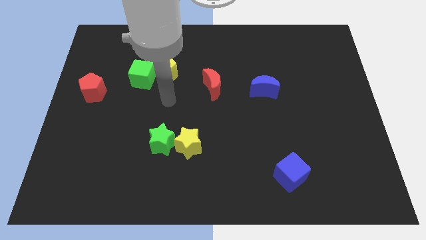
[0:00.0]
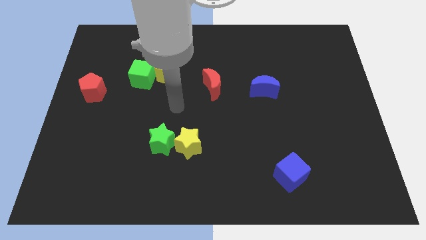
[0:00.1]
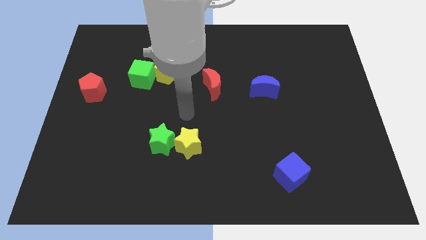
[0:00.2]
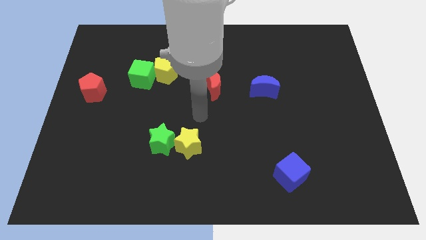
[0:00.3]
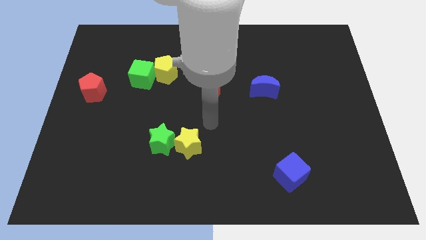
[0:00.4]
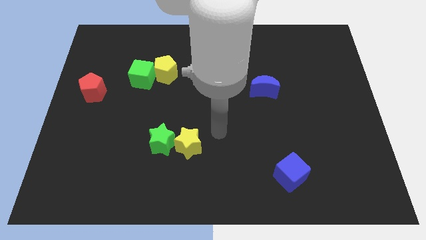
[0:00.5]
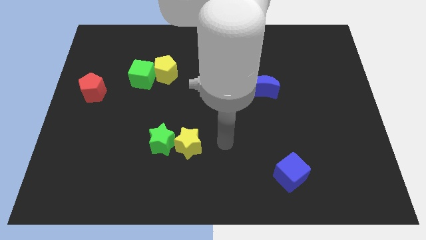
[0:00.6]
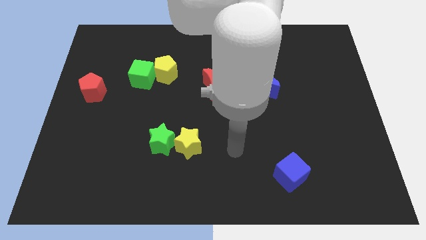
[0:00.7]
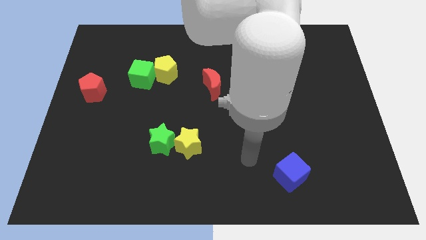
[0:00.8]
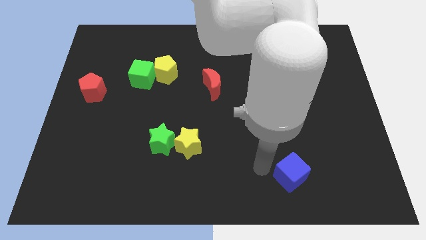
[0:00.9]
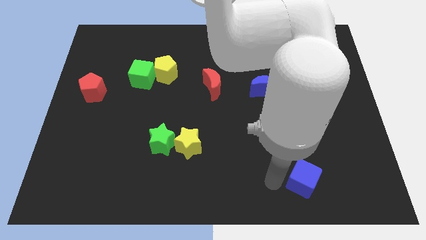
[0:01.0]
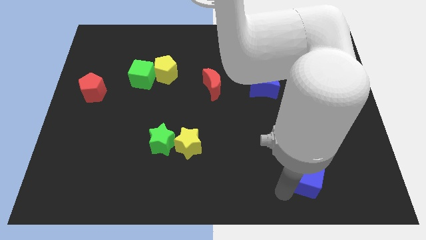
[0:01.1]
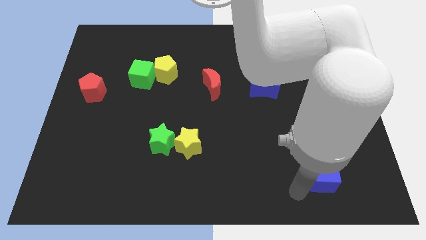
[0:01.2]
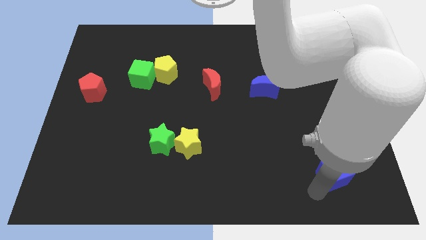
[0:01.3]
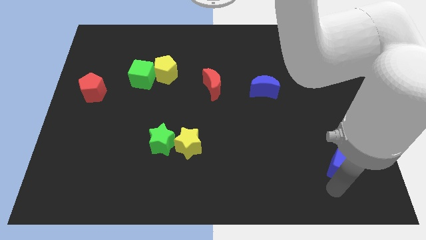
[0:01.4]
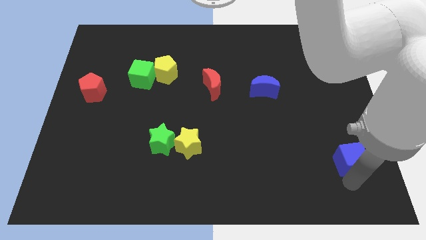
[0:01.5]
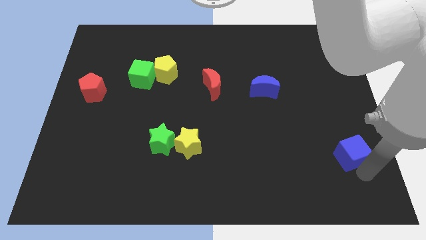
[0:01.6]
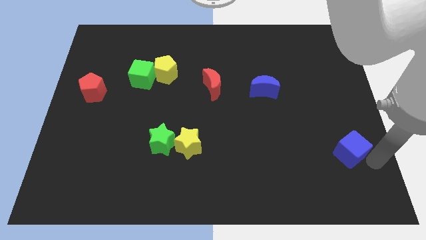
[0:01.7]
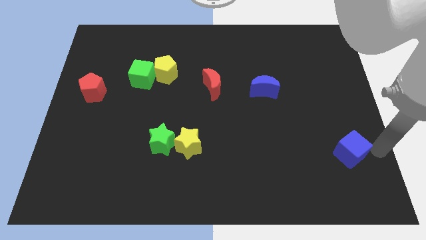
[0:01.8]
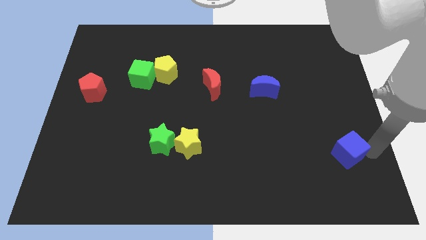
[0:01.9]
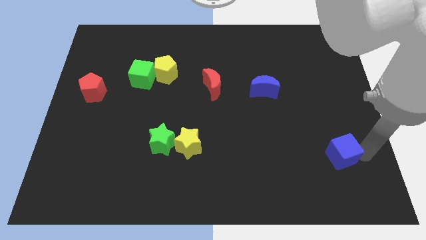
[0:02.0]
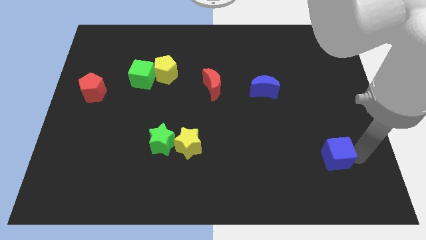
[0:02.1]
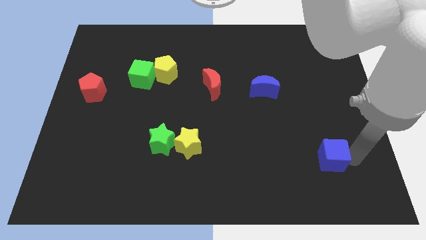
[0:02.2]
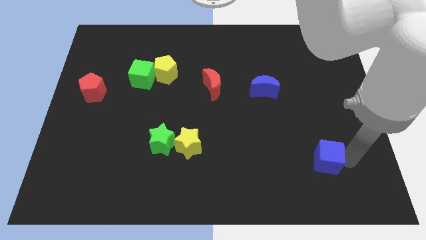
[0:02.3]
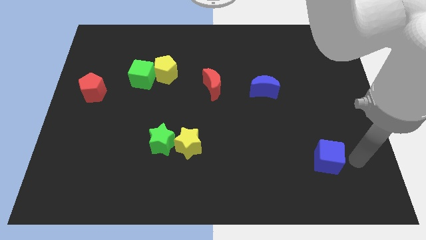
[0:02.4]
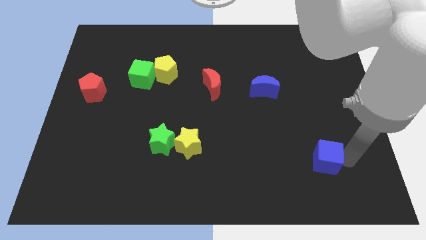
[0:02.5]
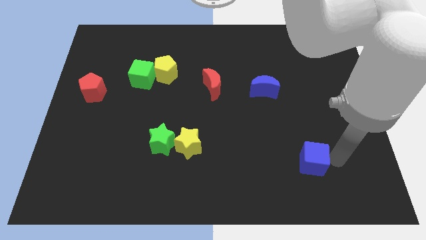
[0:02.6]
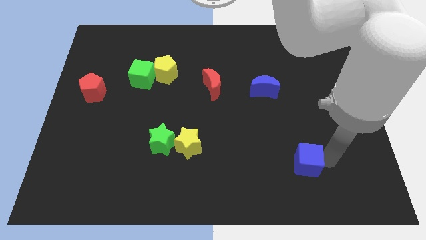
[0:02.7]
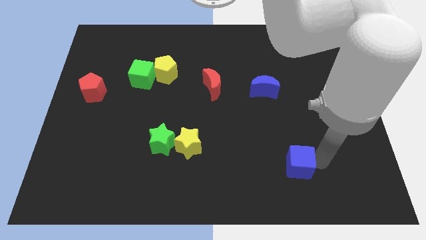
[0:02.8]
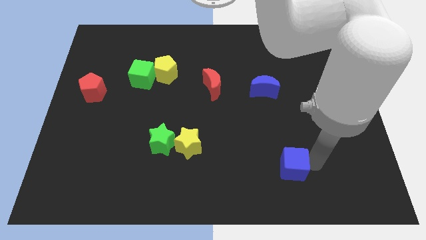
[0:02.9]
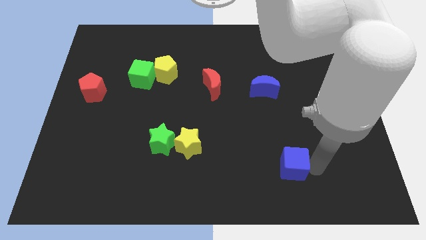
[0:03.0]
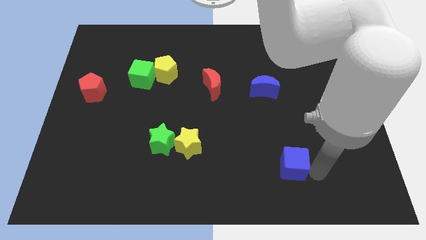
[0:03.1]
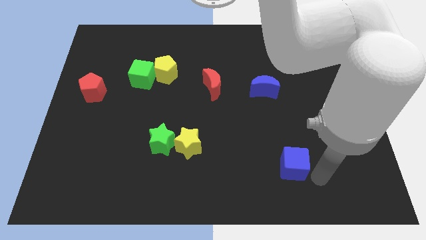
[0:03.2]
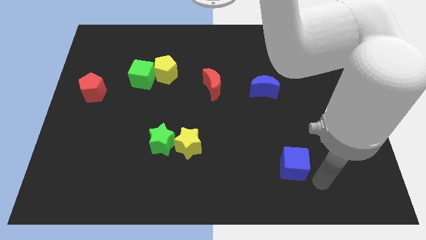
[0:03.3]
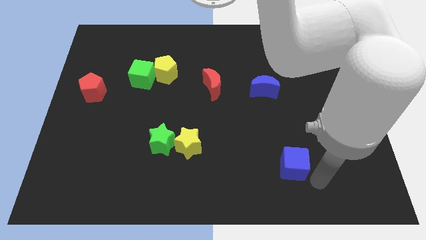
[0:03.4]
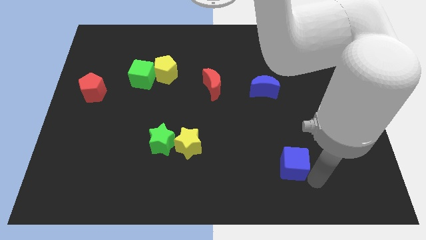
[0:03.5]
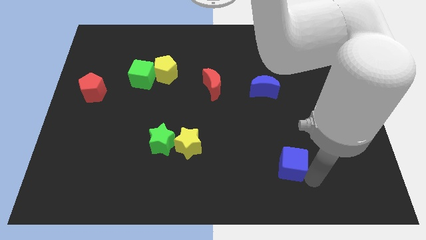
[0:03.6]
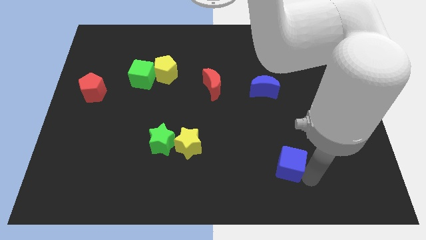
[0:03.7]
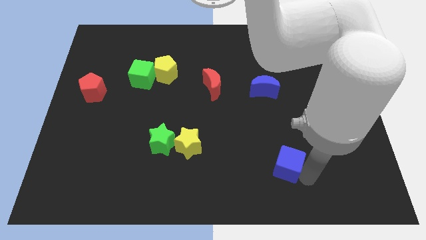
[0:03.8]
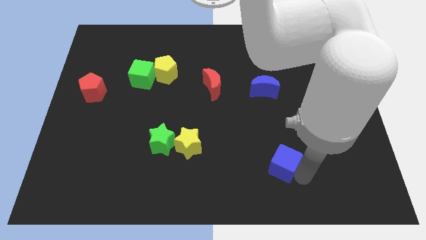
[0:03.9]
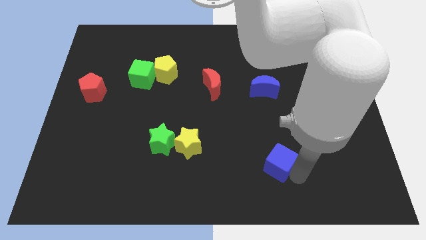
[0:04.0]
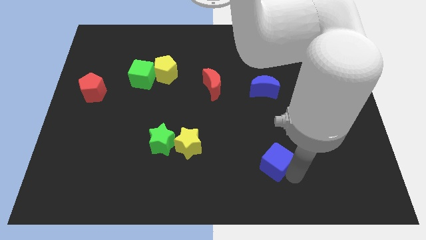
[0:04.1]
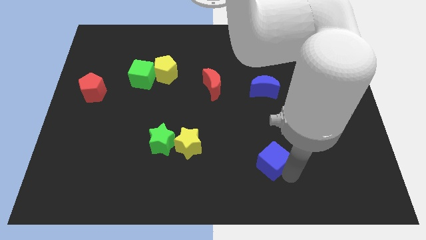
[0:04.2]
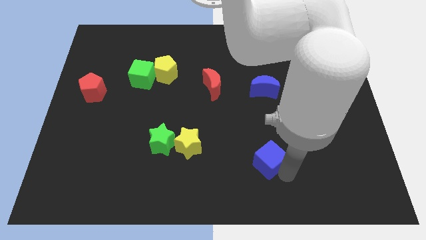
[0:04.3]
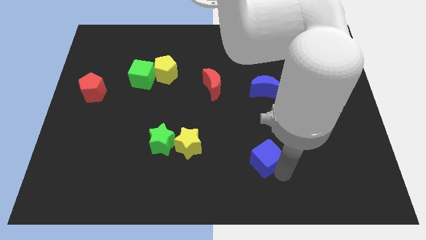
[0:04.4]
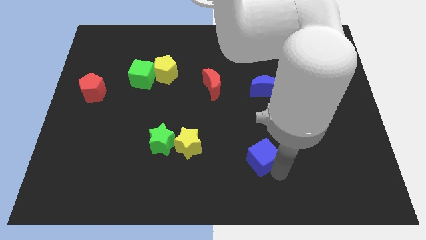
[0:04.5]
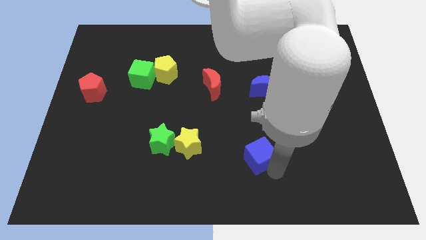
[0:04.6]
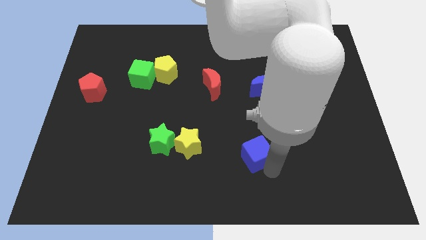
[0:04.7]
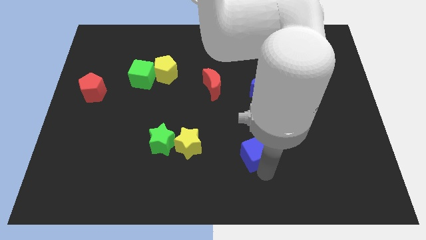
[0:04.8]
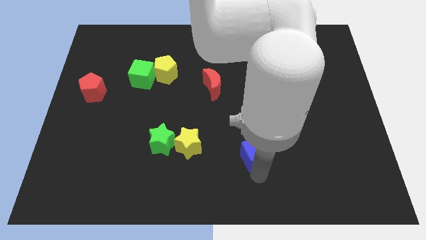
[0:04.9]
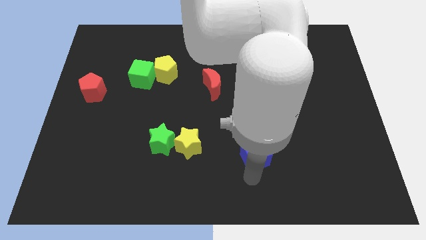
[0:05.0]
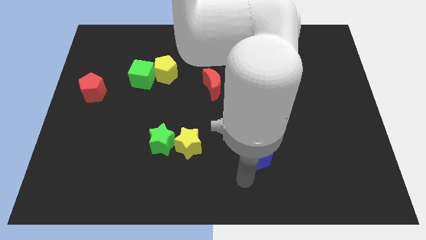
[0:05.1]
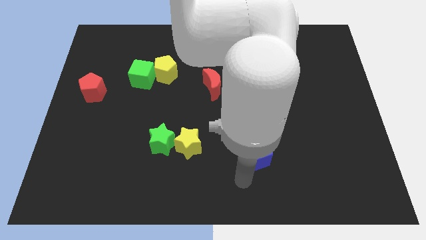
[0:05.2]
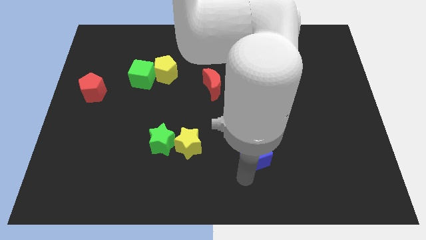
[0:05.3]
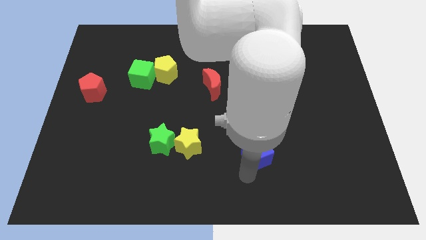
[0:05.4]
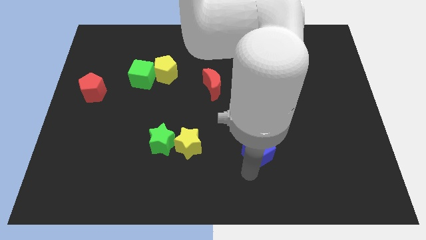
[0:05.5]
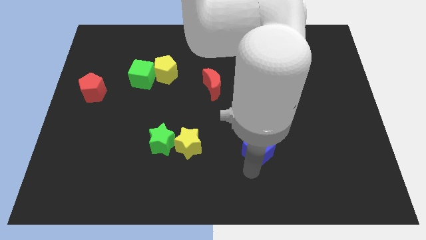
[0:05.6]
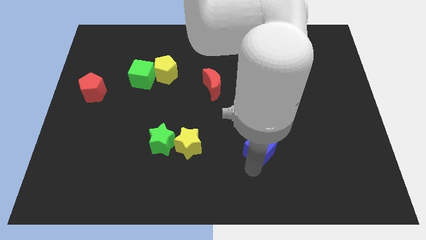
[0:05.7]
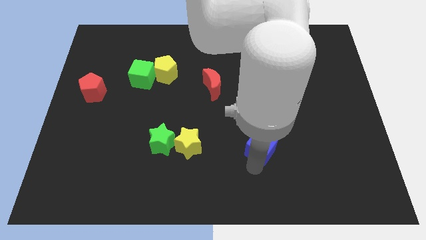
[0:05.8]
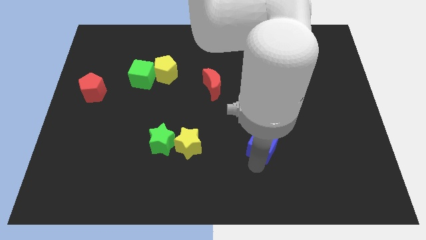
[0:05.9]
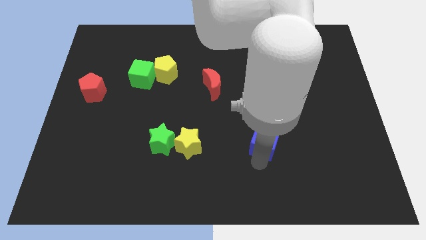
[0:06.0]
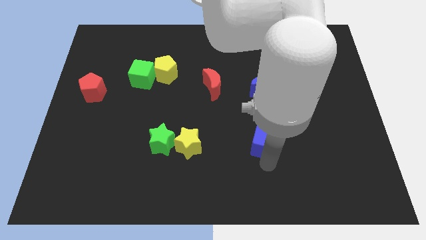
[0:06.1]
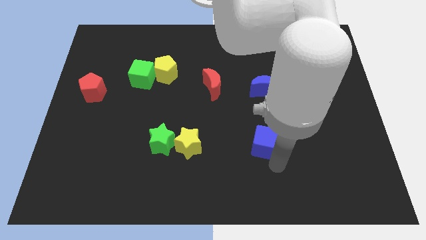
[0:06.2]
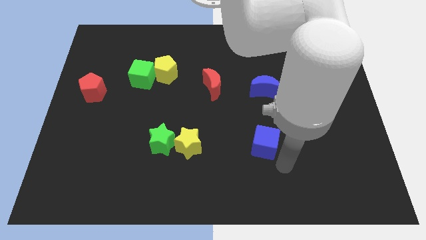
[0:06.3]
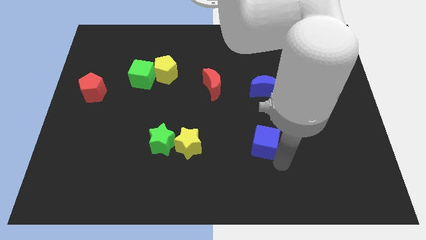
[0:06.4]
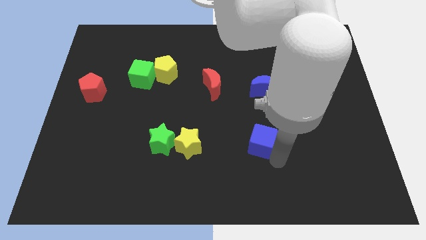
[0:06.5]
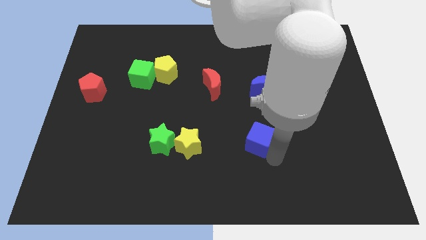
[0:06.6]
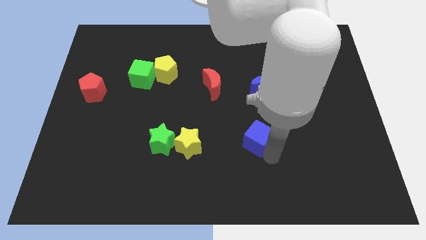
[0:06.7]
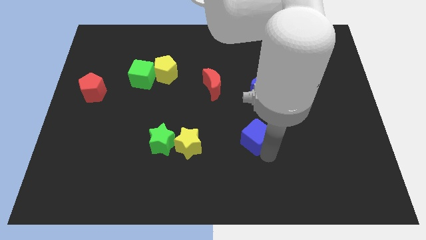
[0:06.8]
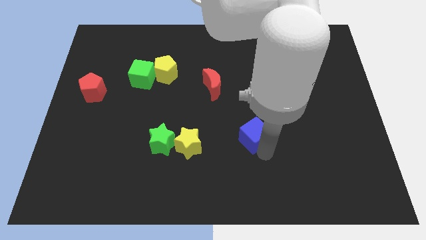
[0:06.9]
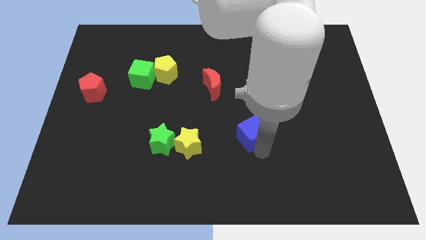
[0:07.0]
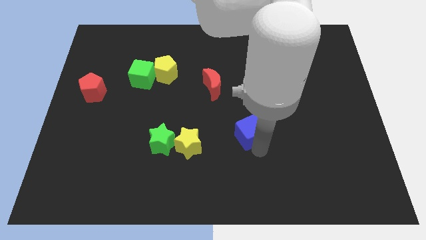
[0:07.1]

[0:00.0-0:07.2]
slide the blue cube to the middle
